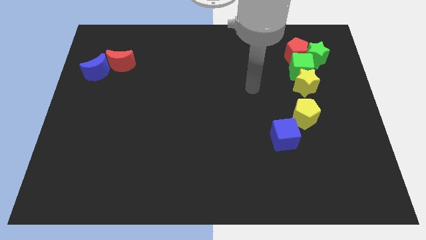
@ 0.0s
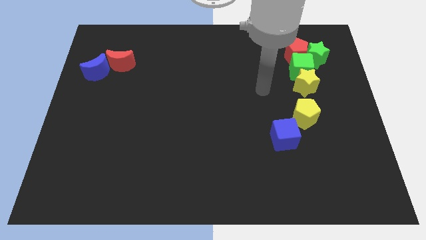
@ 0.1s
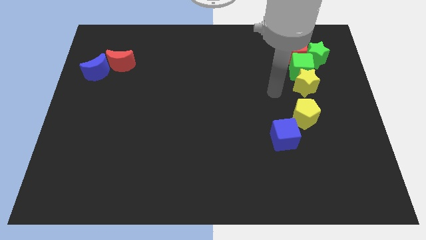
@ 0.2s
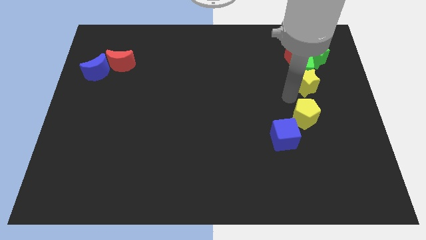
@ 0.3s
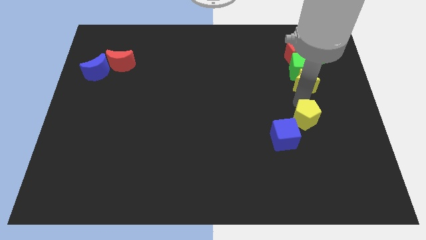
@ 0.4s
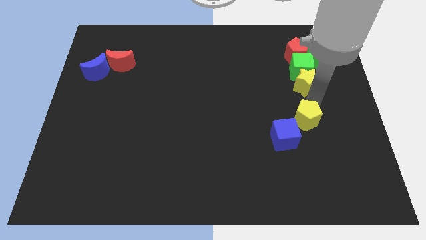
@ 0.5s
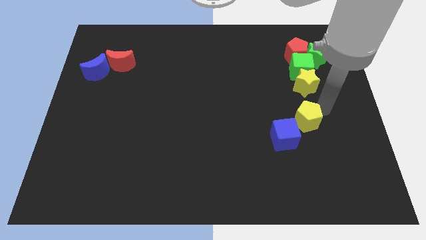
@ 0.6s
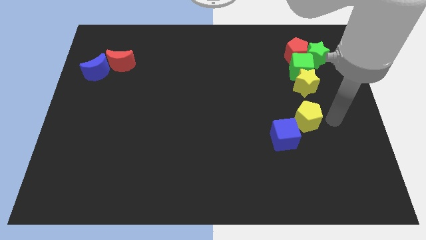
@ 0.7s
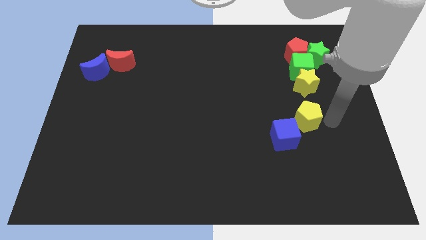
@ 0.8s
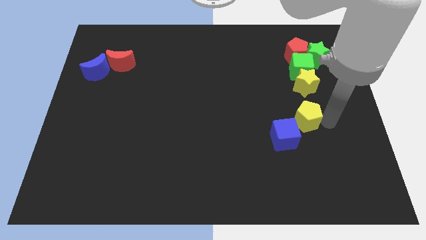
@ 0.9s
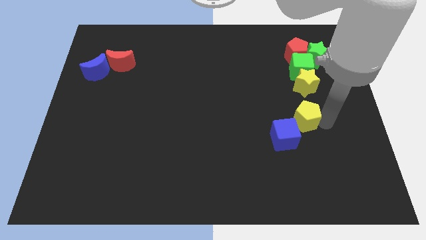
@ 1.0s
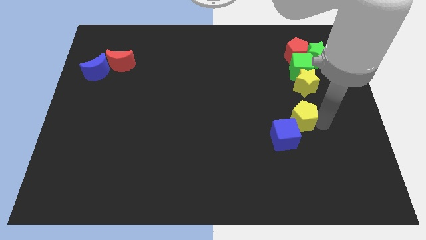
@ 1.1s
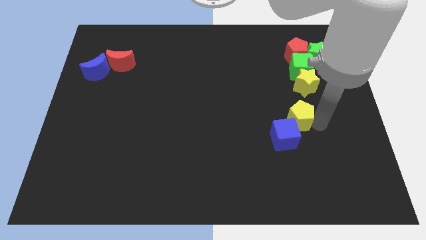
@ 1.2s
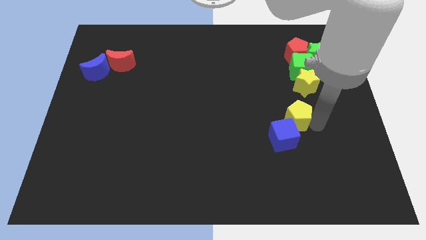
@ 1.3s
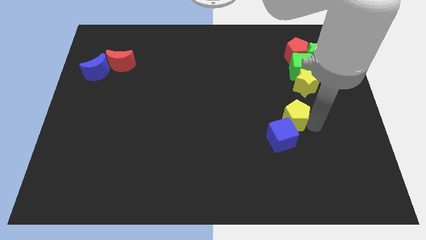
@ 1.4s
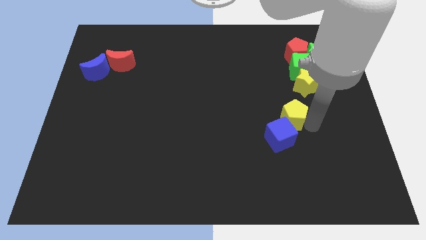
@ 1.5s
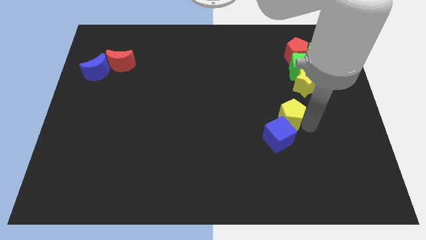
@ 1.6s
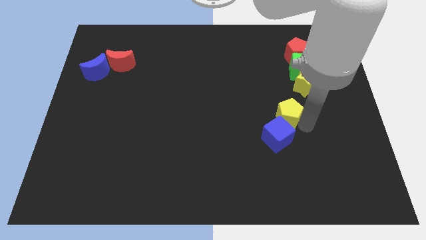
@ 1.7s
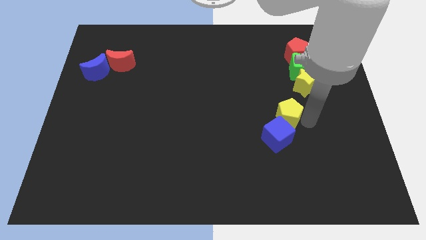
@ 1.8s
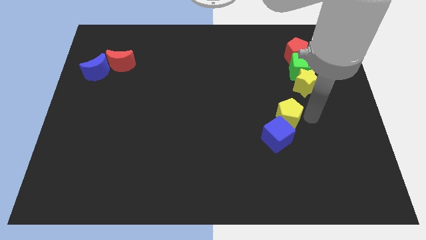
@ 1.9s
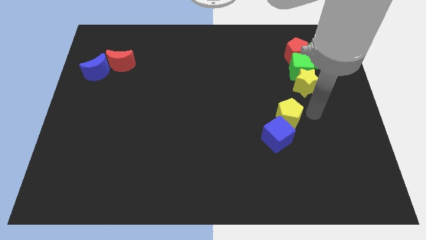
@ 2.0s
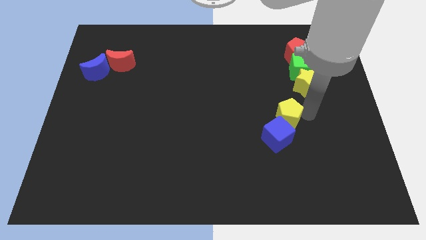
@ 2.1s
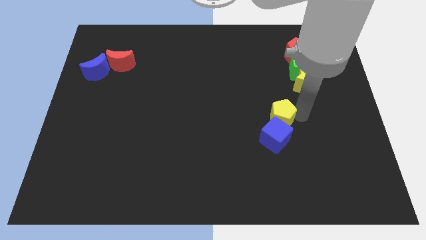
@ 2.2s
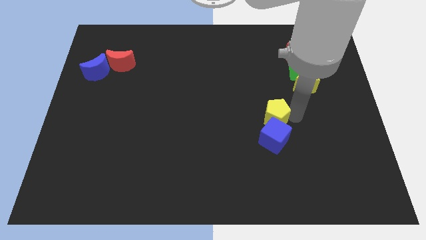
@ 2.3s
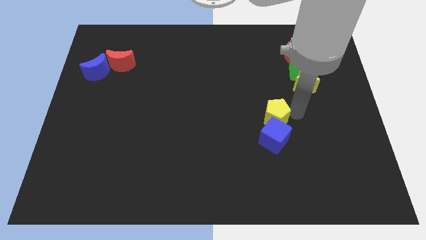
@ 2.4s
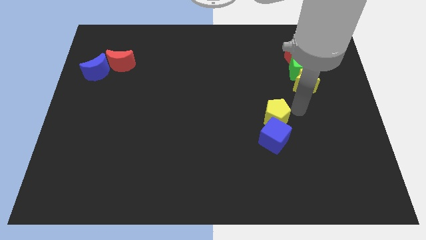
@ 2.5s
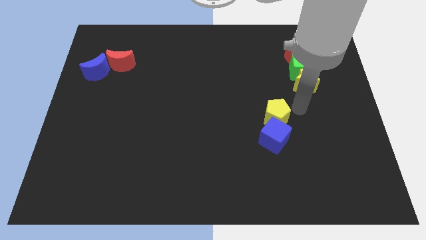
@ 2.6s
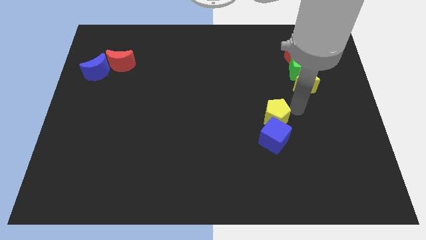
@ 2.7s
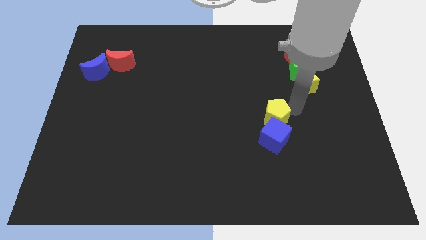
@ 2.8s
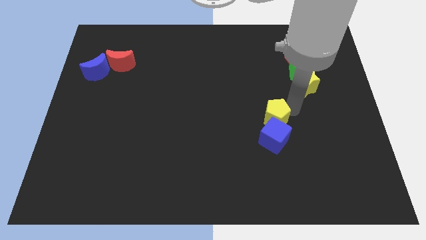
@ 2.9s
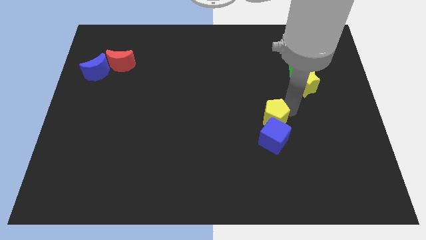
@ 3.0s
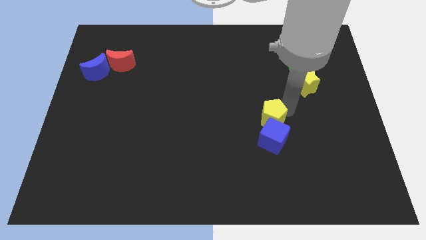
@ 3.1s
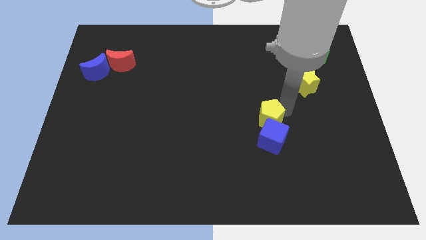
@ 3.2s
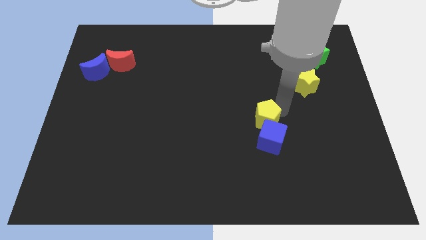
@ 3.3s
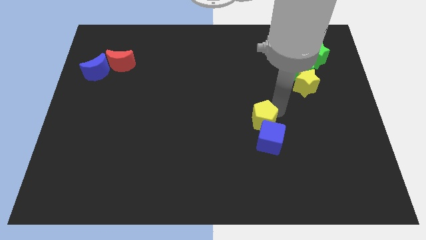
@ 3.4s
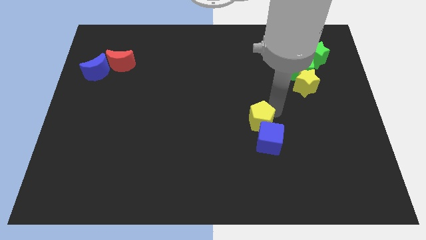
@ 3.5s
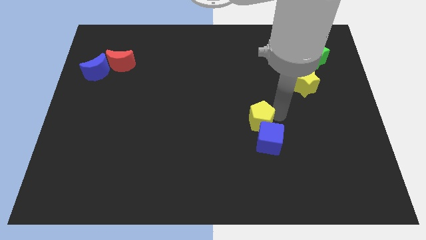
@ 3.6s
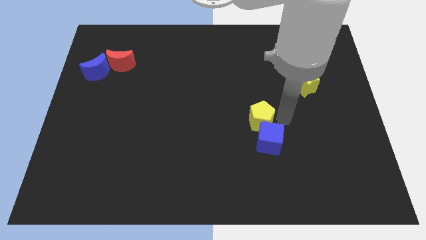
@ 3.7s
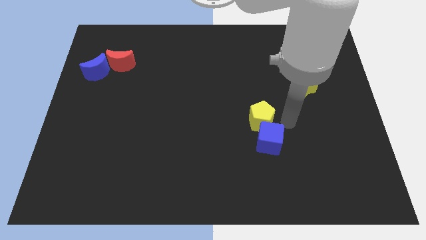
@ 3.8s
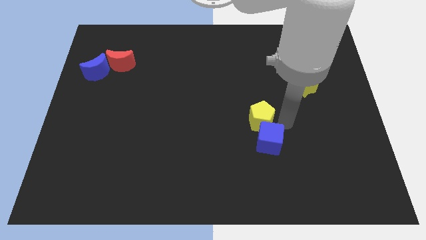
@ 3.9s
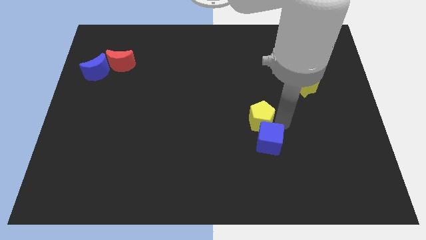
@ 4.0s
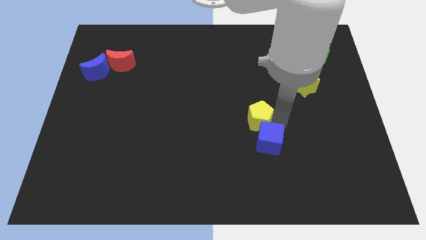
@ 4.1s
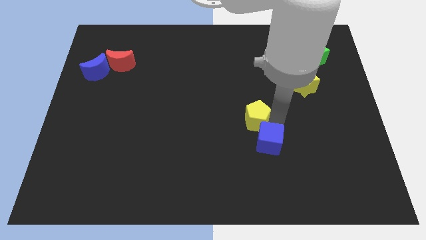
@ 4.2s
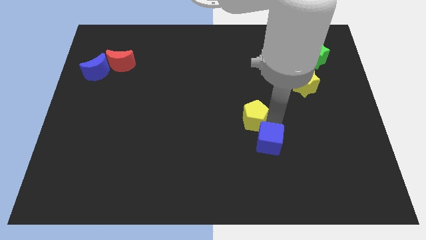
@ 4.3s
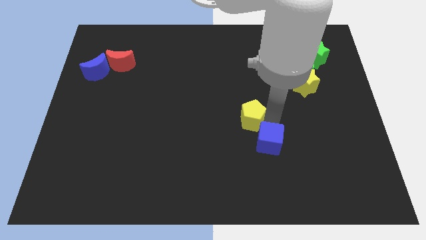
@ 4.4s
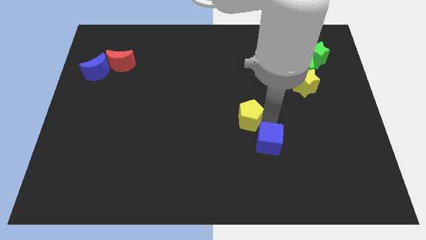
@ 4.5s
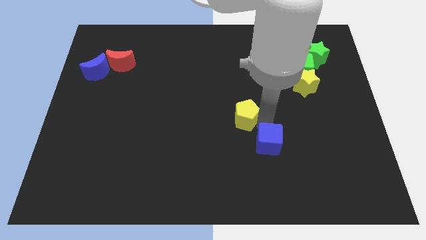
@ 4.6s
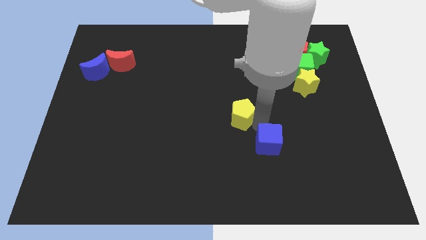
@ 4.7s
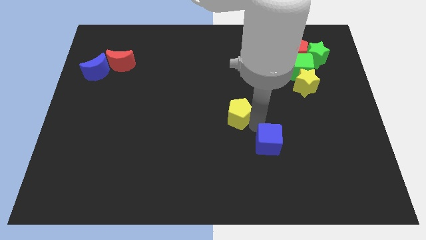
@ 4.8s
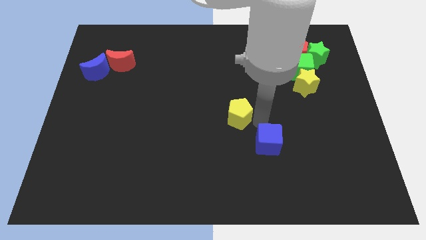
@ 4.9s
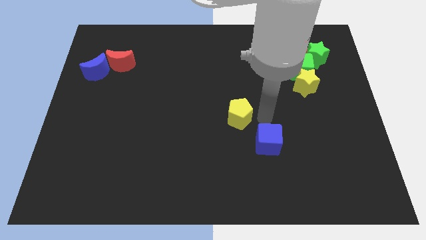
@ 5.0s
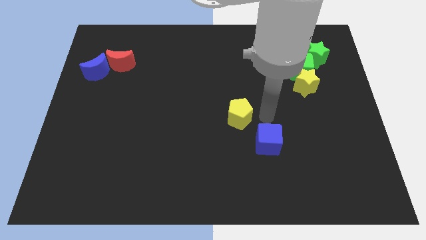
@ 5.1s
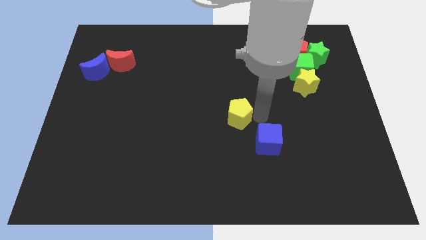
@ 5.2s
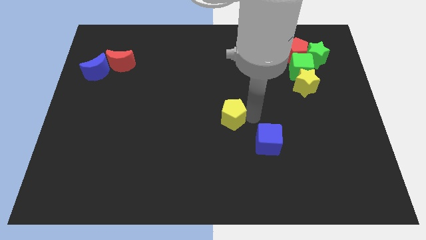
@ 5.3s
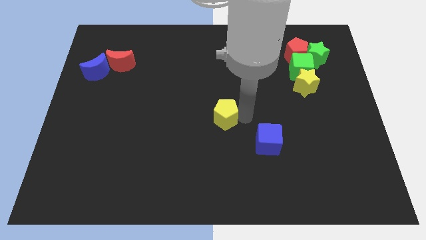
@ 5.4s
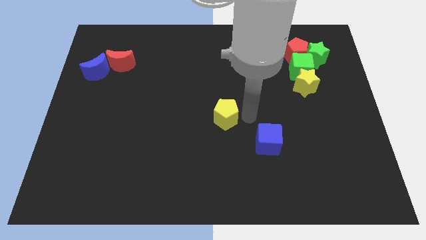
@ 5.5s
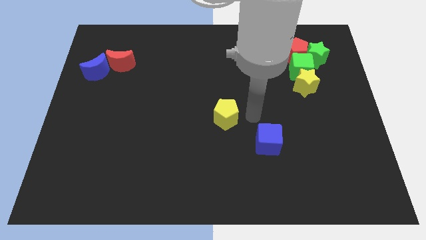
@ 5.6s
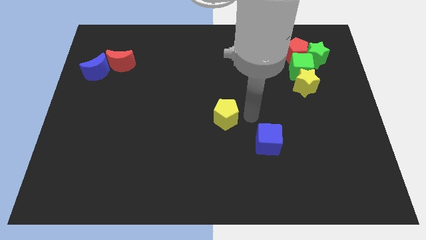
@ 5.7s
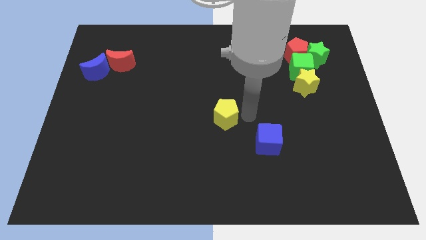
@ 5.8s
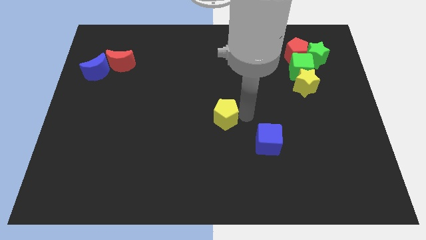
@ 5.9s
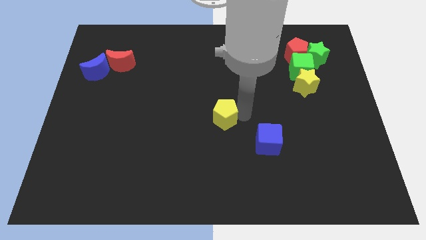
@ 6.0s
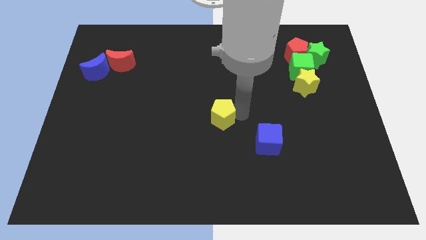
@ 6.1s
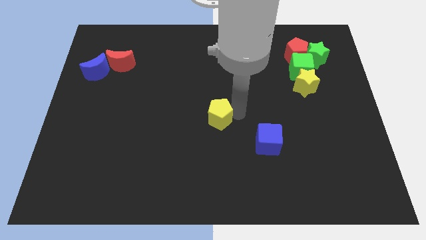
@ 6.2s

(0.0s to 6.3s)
move the yellow pentagon to the left

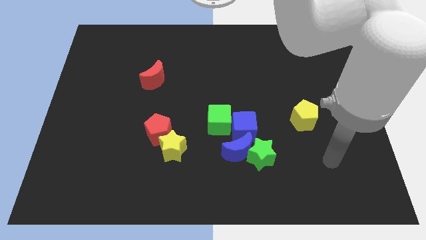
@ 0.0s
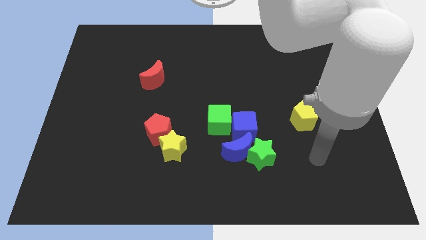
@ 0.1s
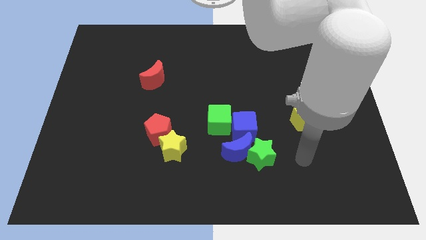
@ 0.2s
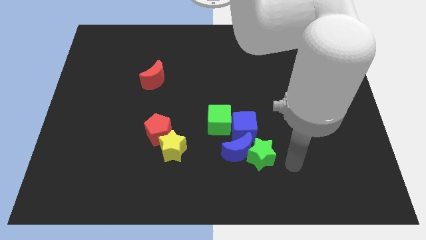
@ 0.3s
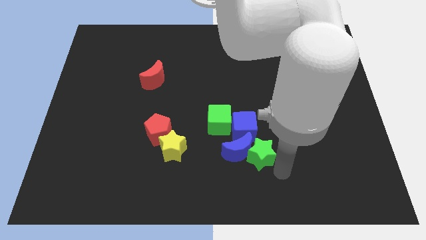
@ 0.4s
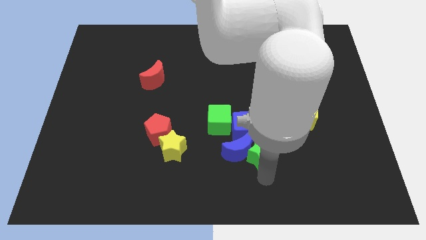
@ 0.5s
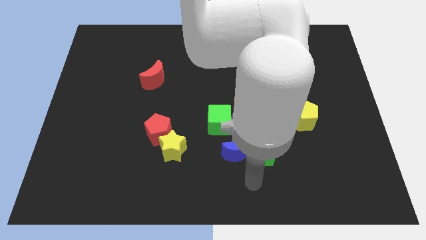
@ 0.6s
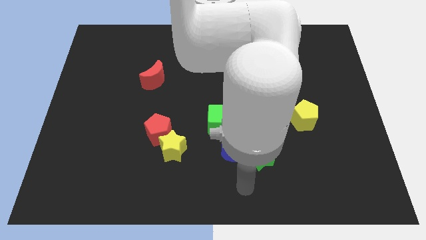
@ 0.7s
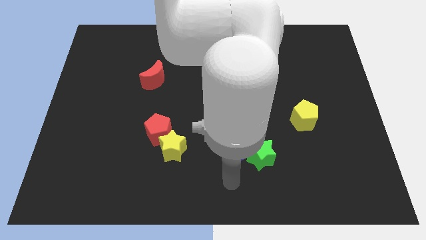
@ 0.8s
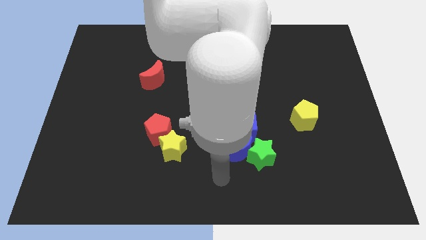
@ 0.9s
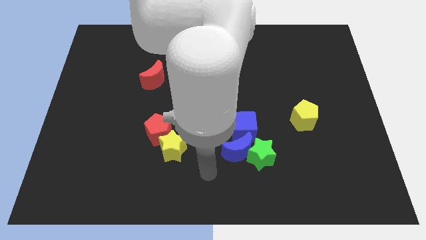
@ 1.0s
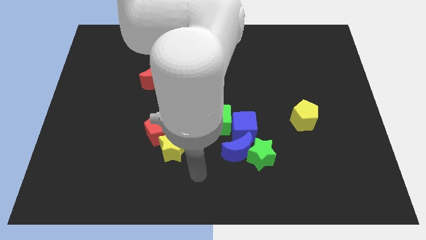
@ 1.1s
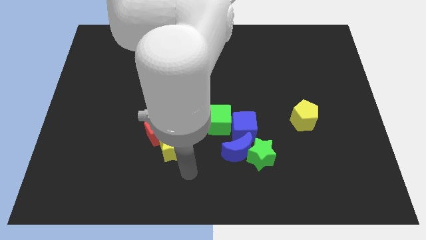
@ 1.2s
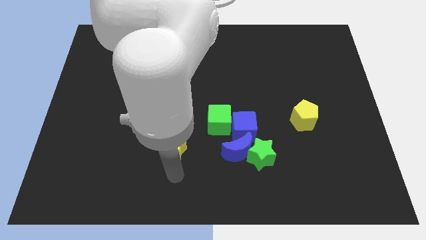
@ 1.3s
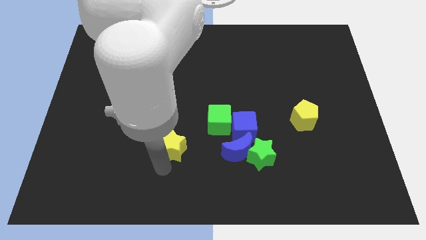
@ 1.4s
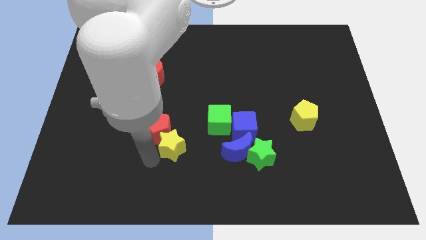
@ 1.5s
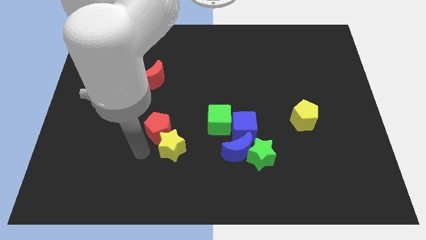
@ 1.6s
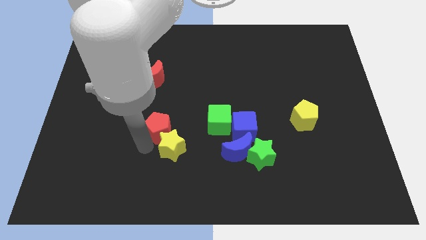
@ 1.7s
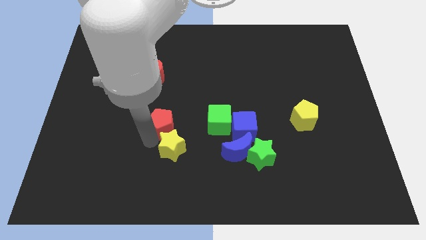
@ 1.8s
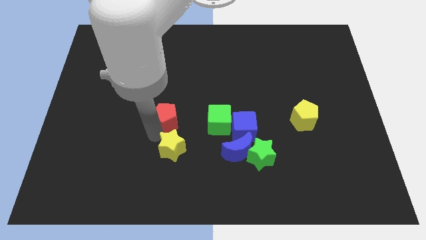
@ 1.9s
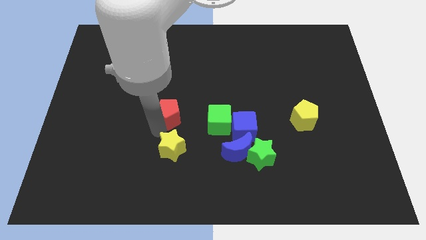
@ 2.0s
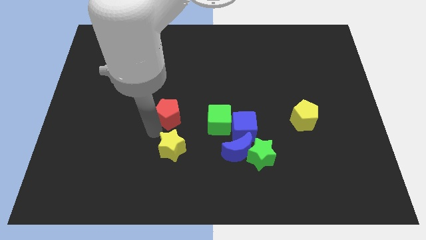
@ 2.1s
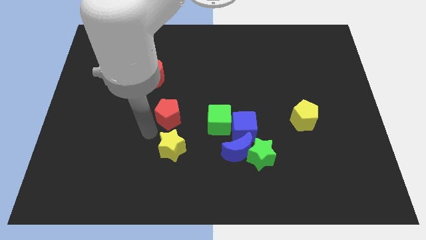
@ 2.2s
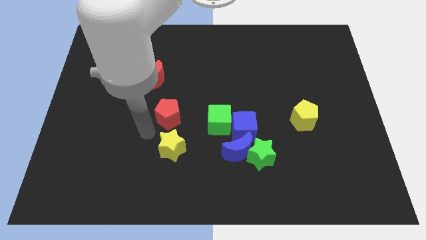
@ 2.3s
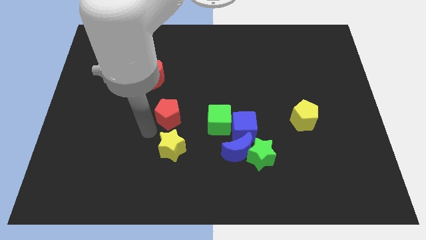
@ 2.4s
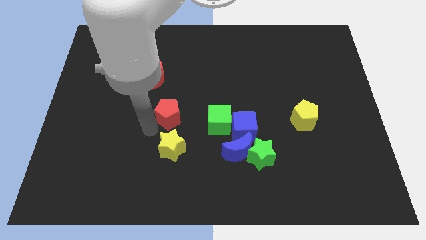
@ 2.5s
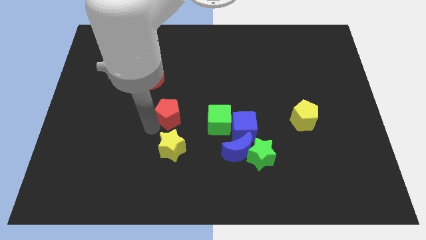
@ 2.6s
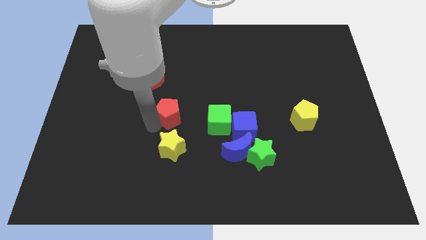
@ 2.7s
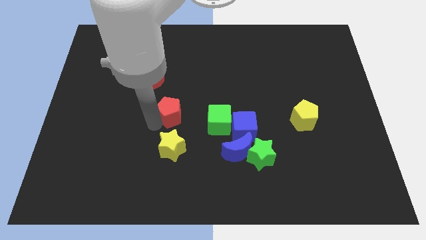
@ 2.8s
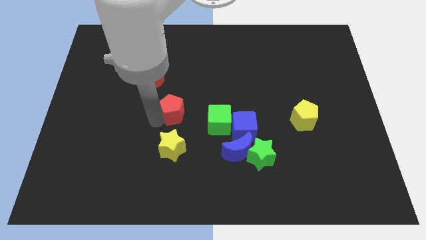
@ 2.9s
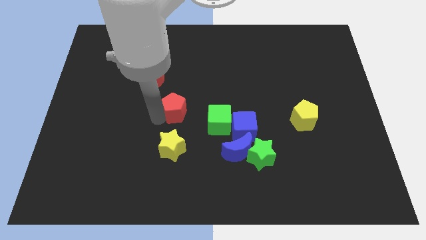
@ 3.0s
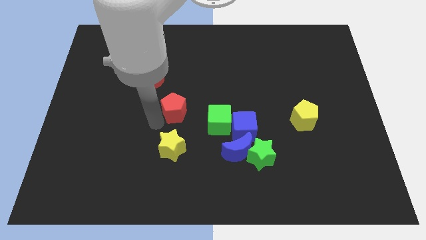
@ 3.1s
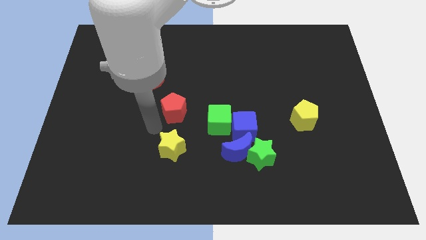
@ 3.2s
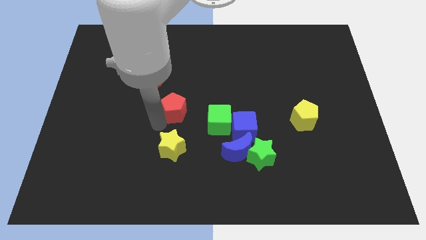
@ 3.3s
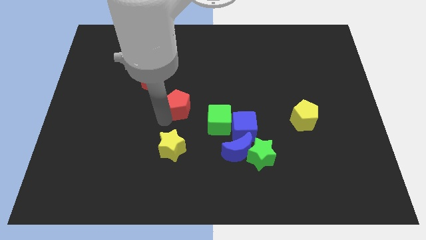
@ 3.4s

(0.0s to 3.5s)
slightly move the red pentagon upwards and to the right diagonally
